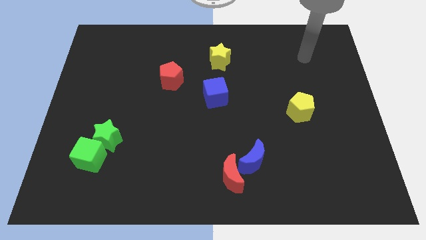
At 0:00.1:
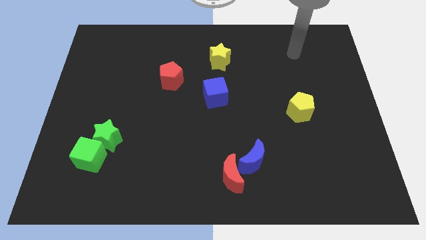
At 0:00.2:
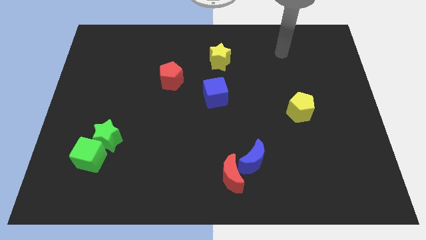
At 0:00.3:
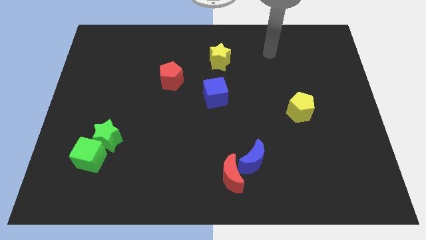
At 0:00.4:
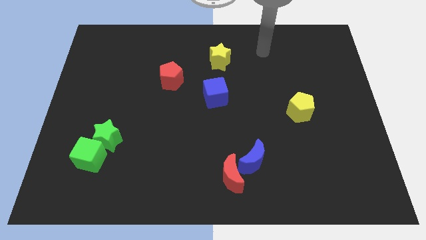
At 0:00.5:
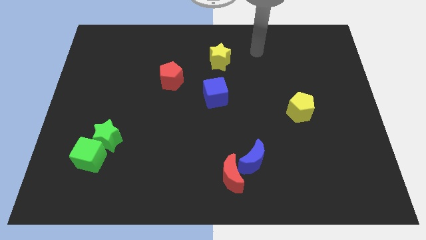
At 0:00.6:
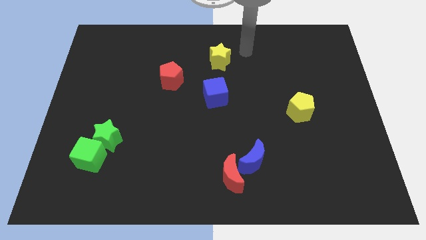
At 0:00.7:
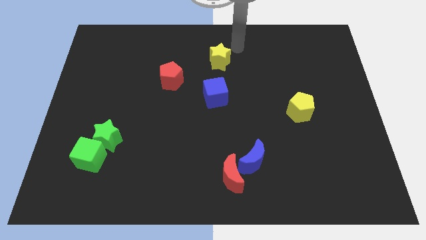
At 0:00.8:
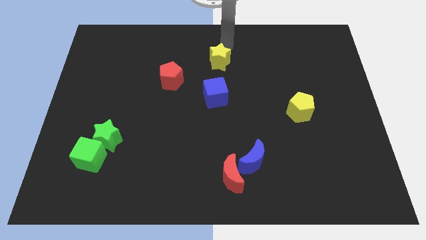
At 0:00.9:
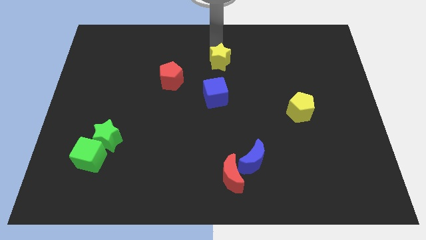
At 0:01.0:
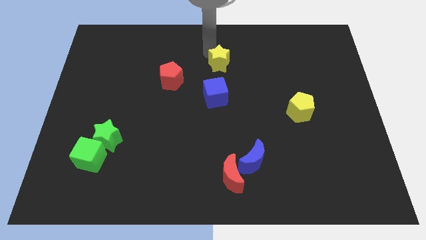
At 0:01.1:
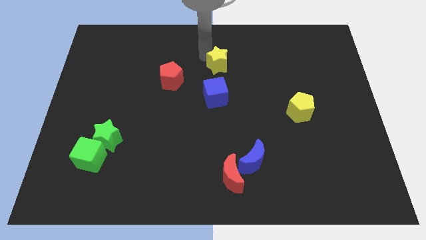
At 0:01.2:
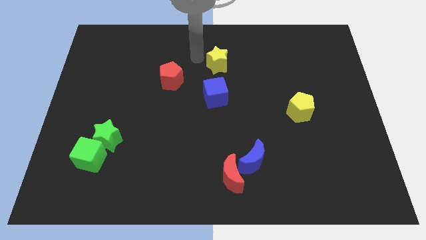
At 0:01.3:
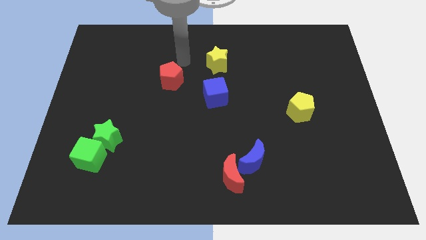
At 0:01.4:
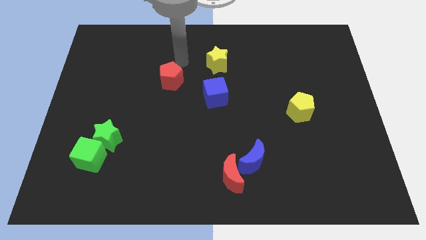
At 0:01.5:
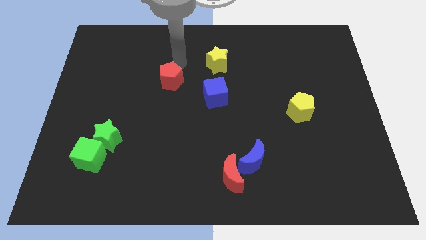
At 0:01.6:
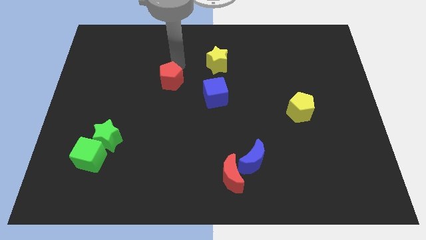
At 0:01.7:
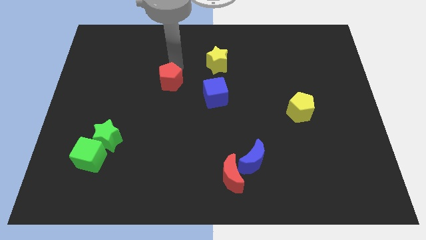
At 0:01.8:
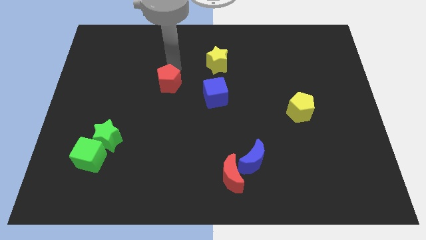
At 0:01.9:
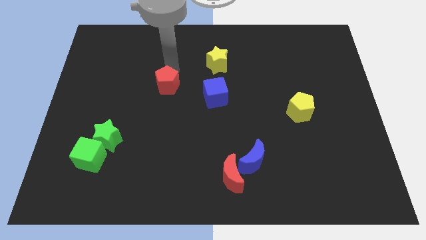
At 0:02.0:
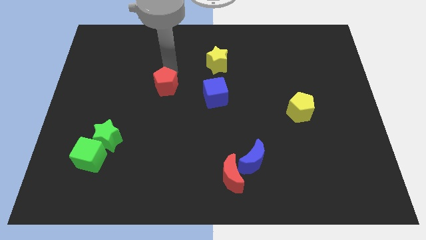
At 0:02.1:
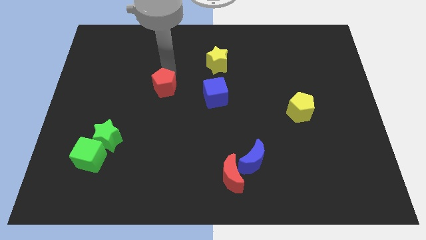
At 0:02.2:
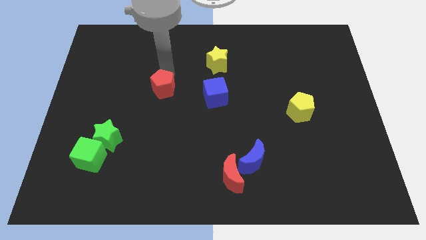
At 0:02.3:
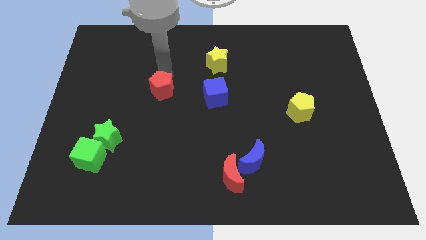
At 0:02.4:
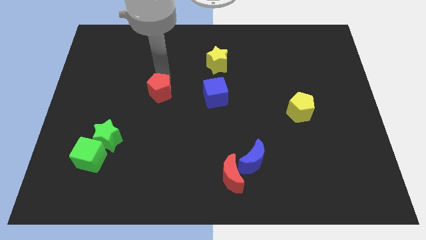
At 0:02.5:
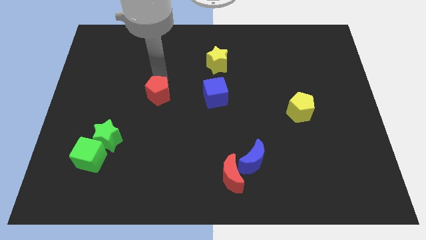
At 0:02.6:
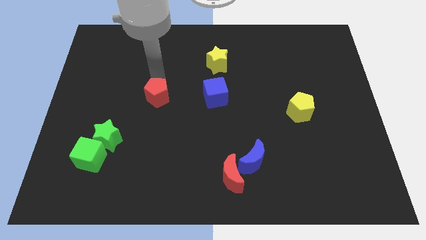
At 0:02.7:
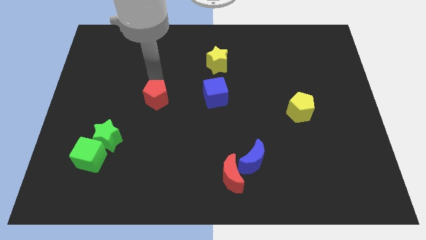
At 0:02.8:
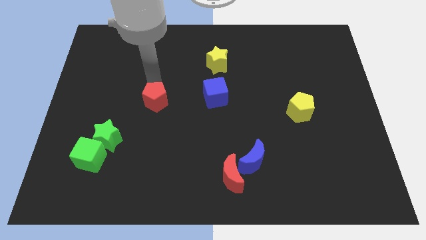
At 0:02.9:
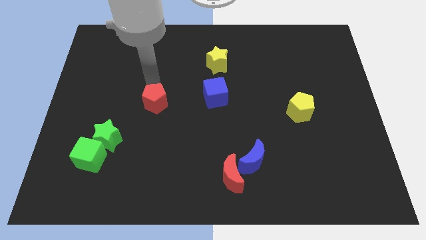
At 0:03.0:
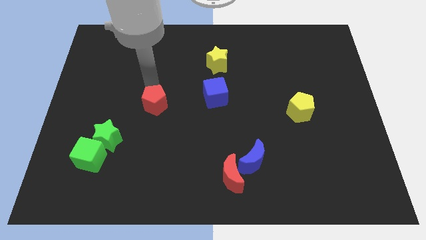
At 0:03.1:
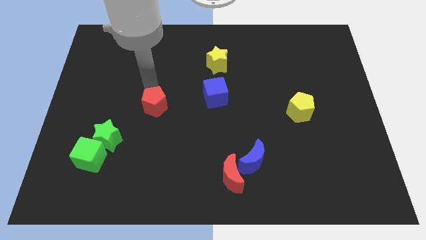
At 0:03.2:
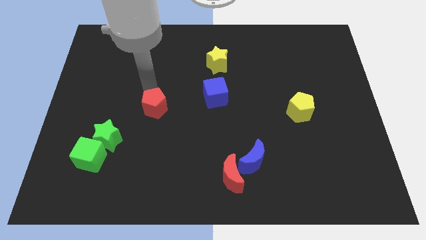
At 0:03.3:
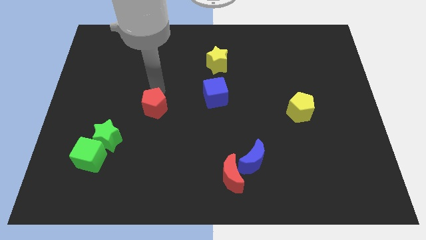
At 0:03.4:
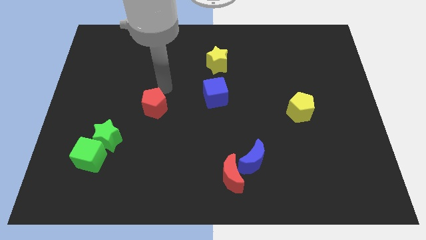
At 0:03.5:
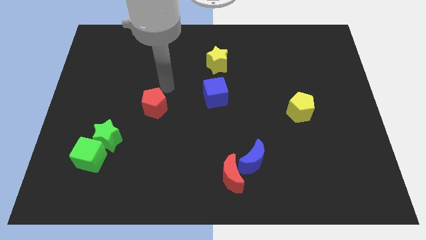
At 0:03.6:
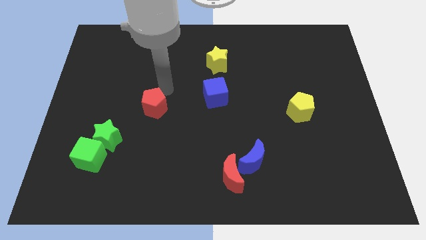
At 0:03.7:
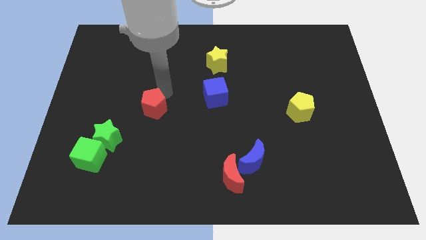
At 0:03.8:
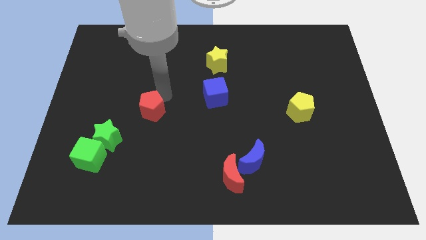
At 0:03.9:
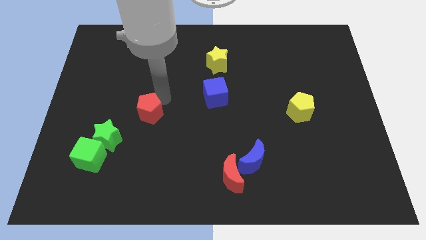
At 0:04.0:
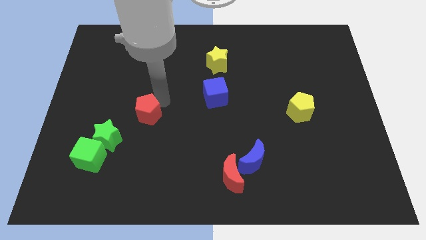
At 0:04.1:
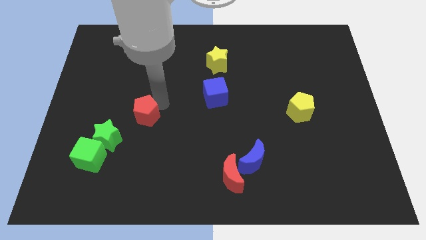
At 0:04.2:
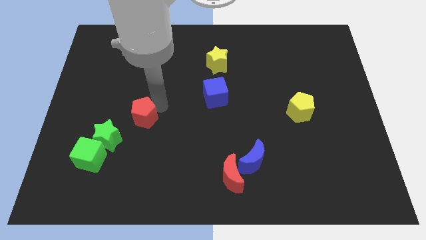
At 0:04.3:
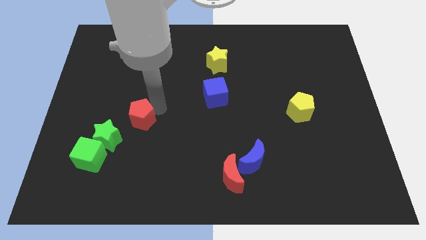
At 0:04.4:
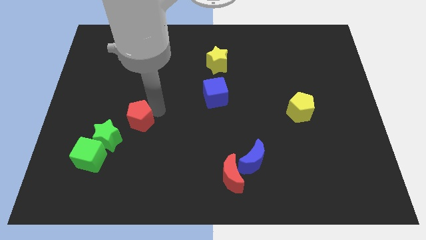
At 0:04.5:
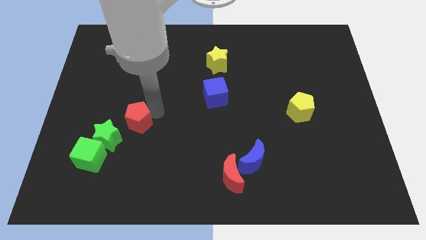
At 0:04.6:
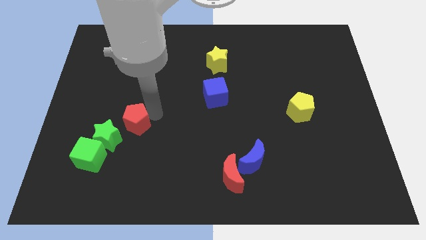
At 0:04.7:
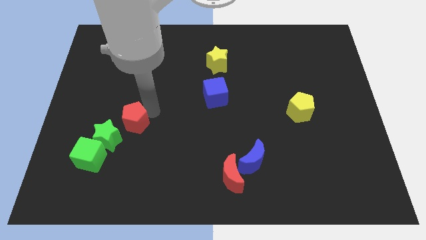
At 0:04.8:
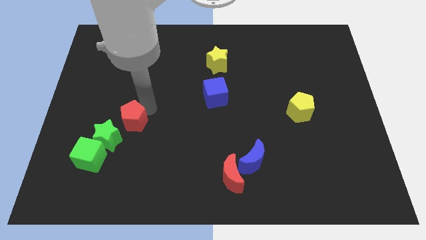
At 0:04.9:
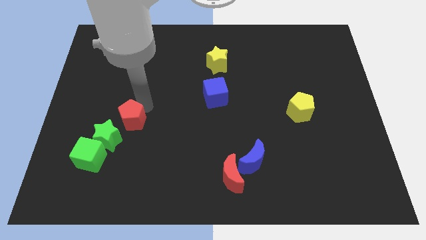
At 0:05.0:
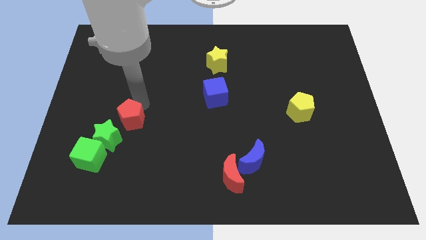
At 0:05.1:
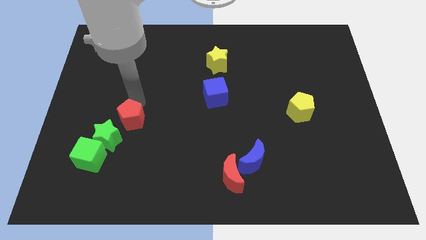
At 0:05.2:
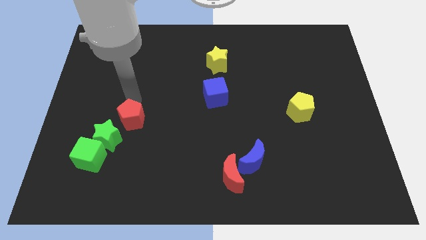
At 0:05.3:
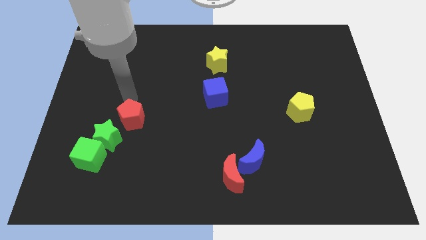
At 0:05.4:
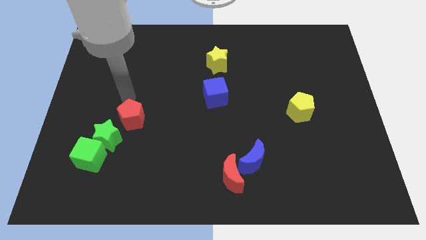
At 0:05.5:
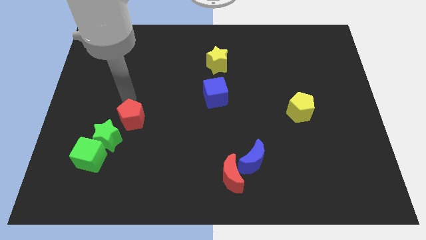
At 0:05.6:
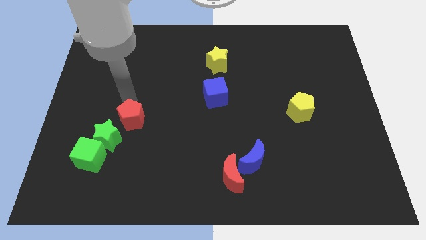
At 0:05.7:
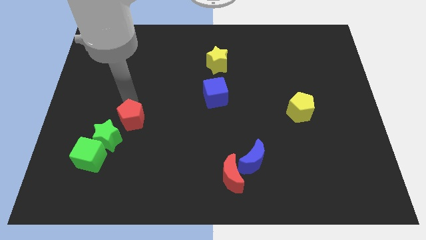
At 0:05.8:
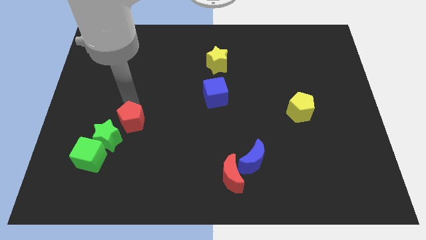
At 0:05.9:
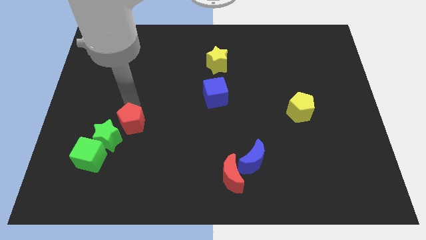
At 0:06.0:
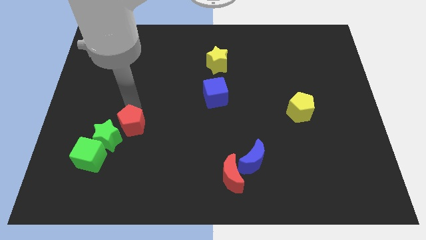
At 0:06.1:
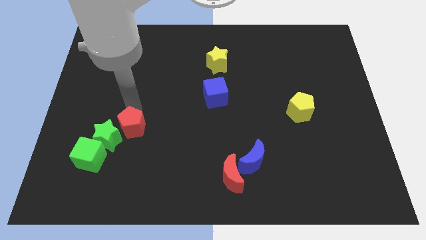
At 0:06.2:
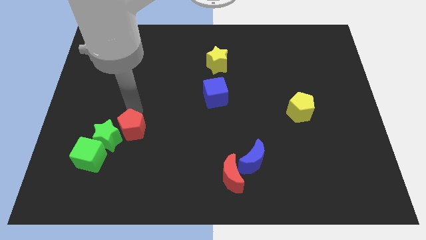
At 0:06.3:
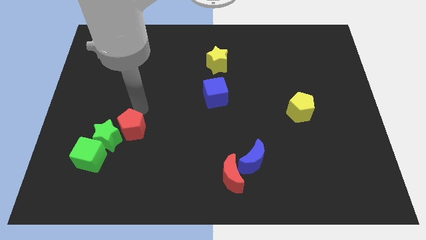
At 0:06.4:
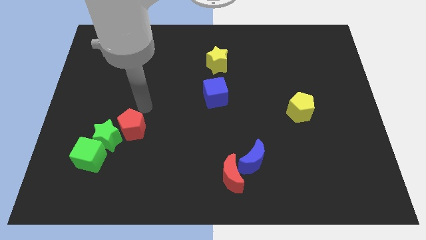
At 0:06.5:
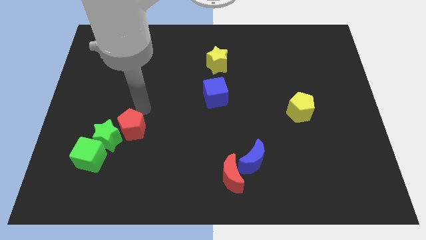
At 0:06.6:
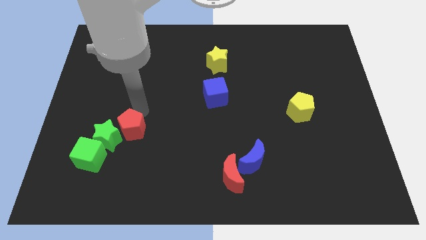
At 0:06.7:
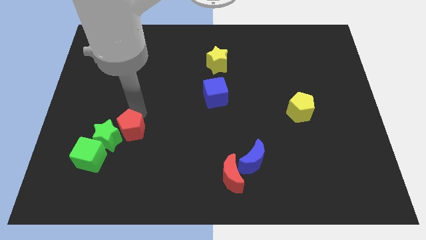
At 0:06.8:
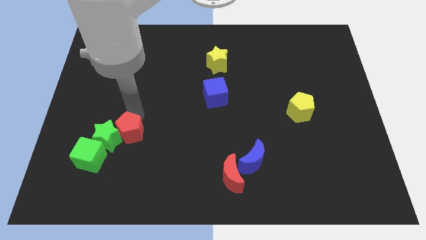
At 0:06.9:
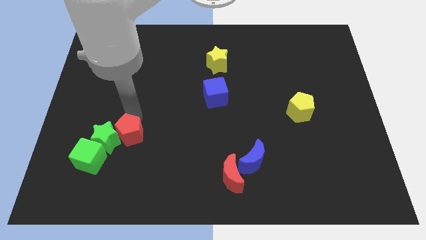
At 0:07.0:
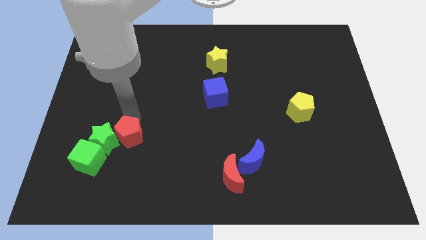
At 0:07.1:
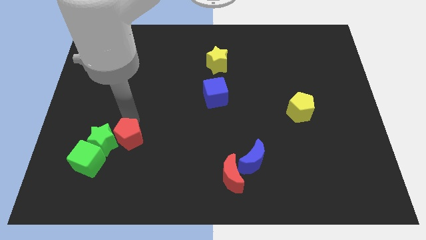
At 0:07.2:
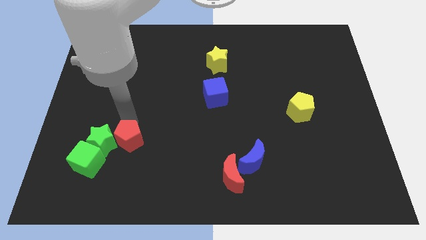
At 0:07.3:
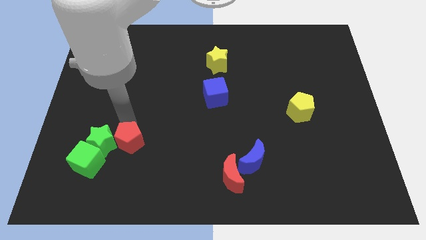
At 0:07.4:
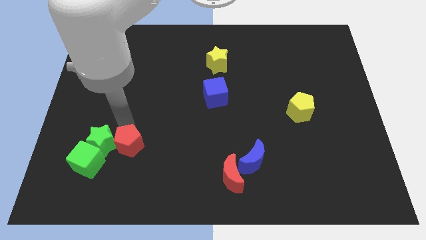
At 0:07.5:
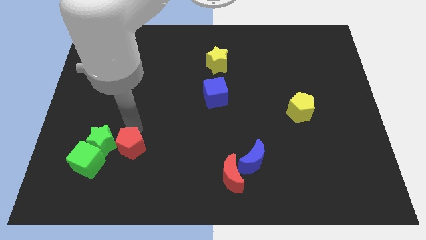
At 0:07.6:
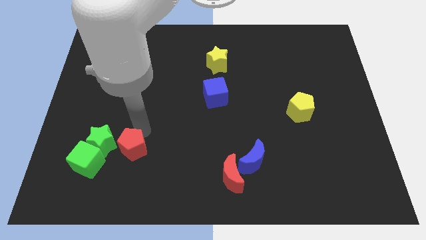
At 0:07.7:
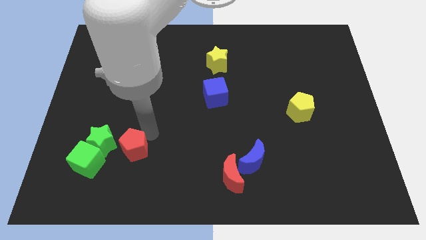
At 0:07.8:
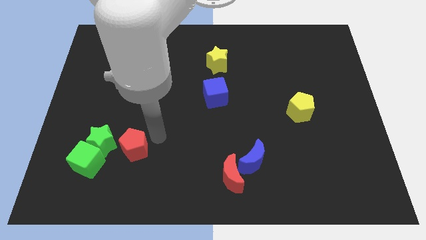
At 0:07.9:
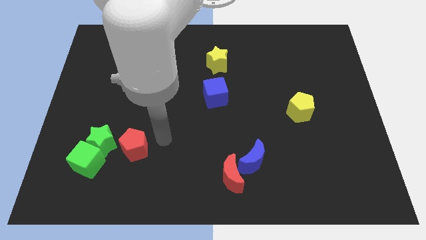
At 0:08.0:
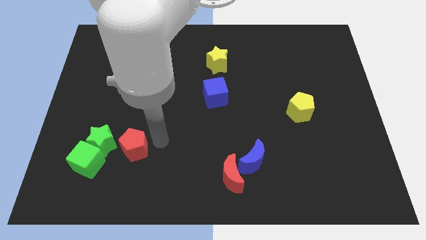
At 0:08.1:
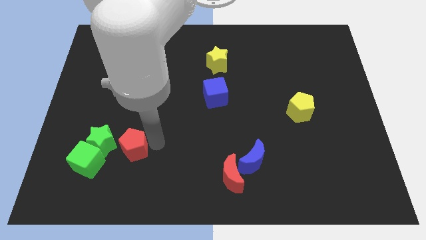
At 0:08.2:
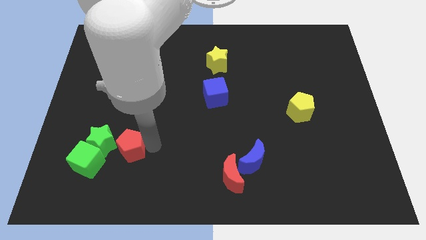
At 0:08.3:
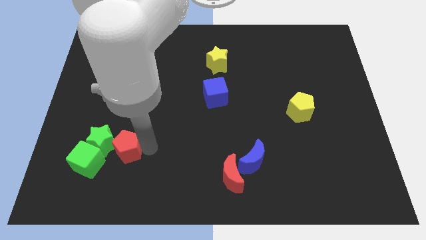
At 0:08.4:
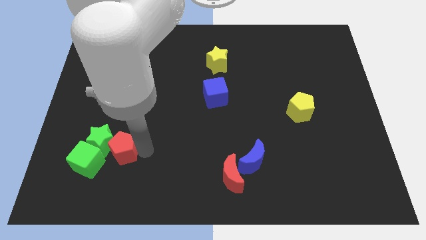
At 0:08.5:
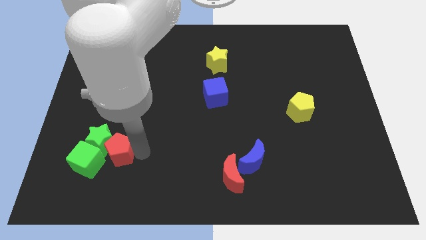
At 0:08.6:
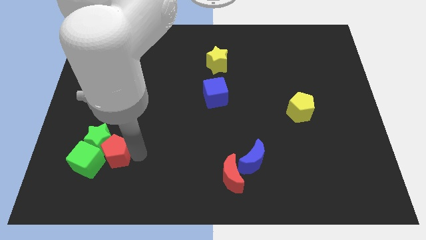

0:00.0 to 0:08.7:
push the red pentagon close to the green cube
